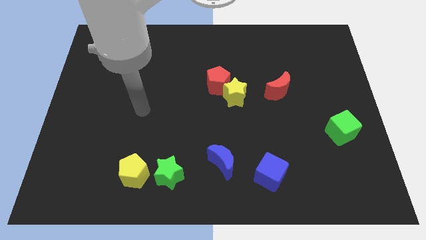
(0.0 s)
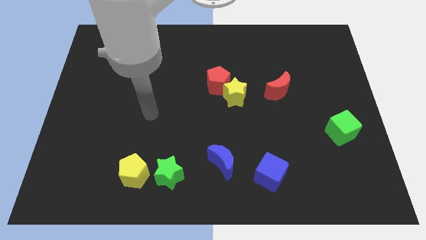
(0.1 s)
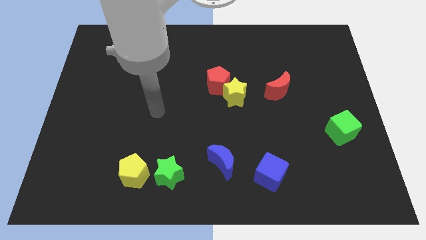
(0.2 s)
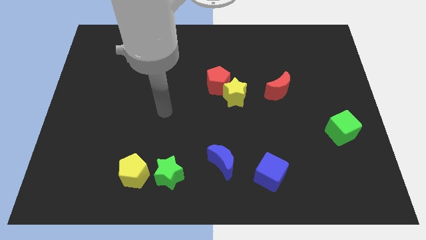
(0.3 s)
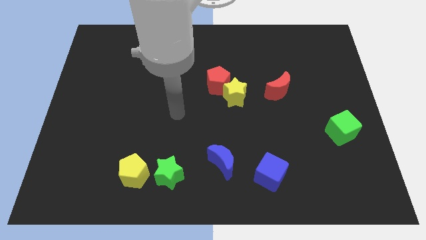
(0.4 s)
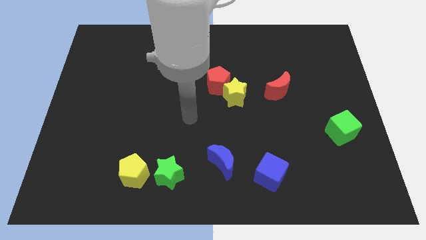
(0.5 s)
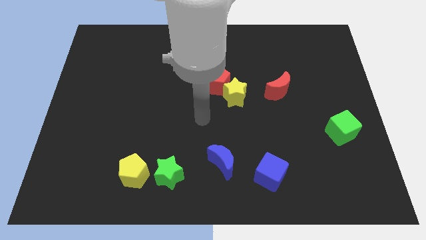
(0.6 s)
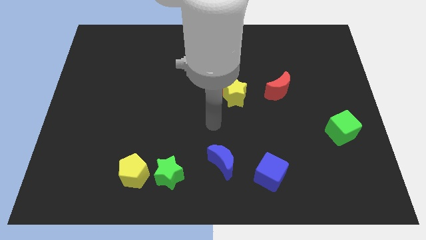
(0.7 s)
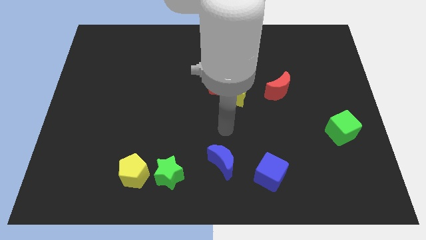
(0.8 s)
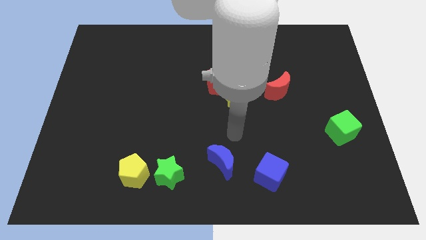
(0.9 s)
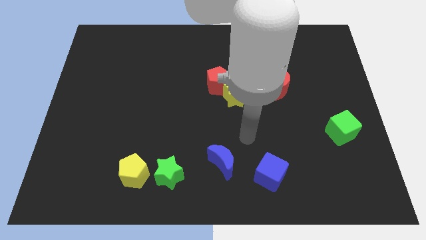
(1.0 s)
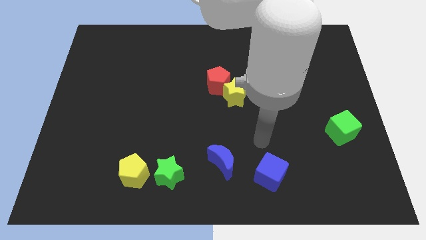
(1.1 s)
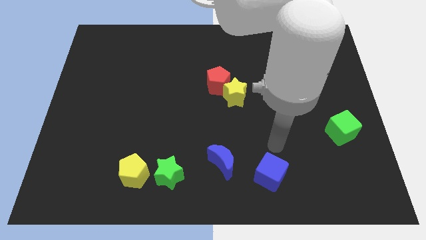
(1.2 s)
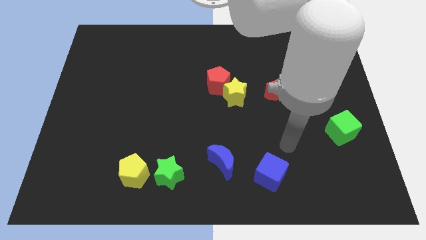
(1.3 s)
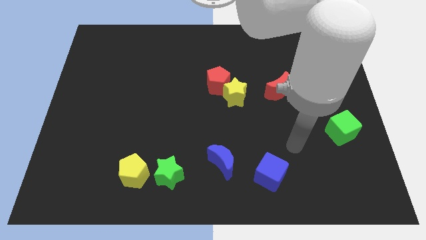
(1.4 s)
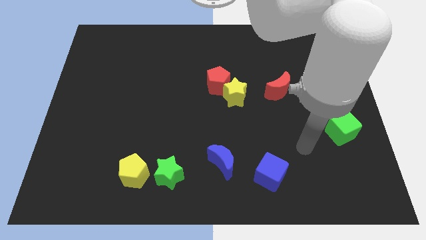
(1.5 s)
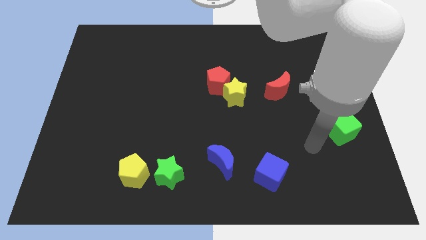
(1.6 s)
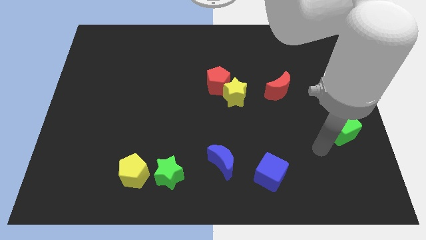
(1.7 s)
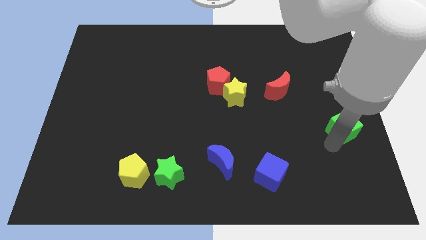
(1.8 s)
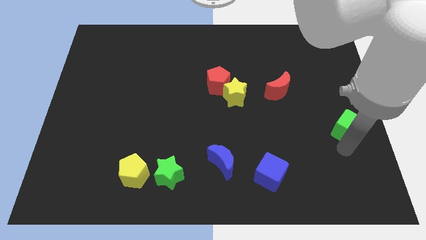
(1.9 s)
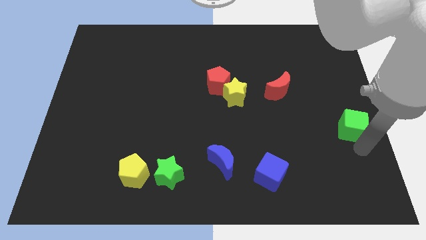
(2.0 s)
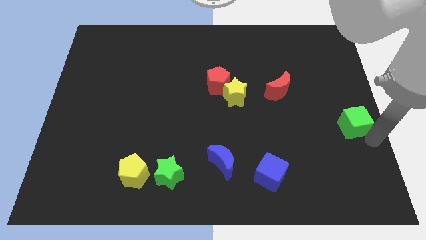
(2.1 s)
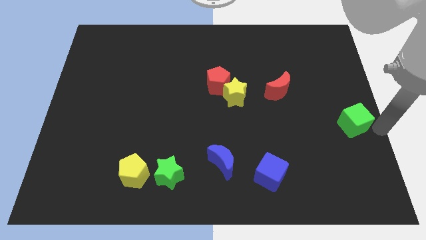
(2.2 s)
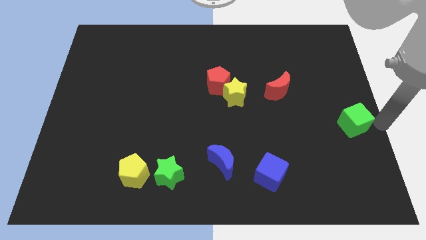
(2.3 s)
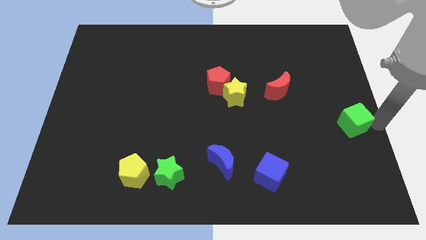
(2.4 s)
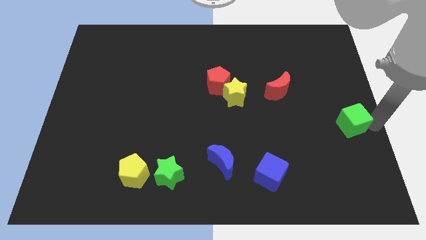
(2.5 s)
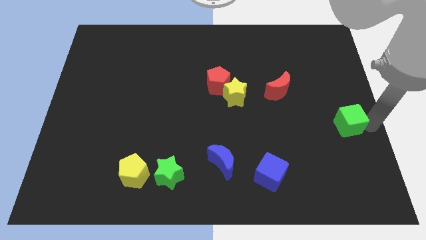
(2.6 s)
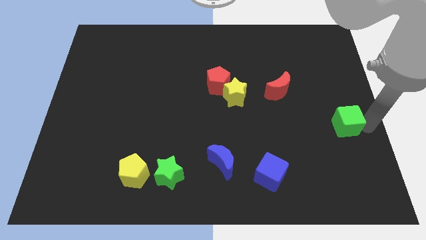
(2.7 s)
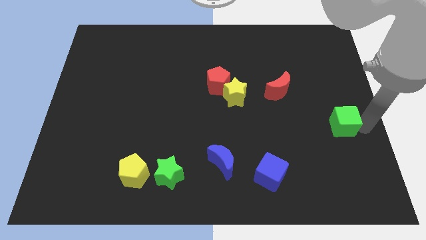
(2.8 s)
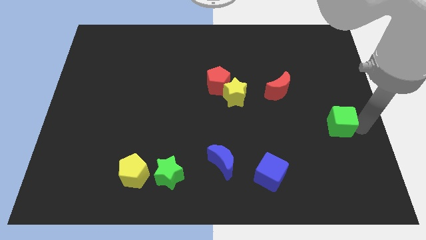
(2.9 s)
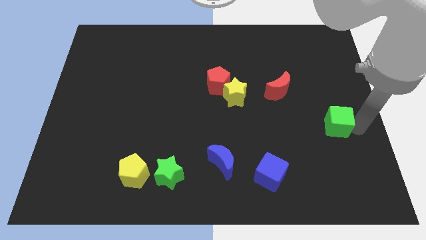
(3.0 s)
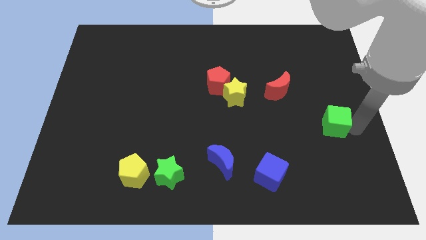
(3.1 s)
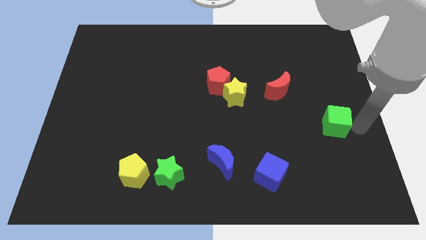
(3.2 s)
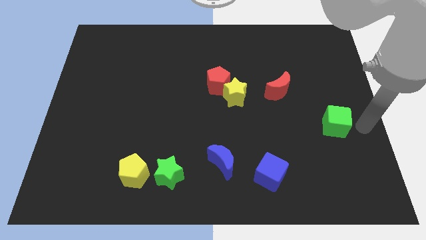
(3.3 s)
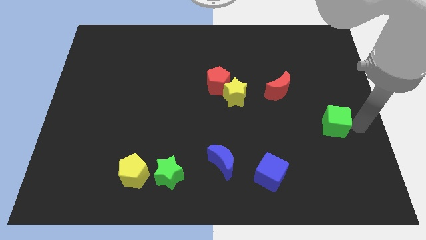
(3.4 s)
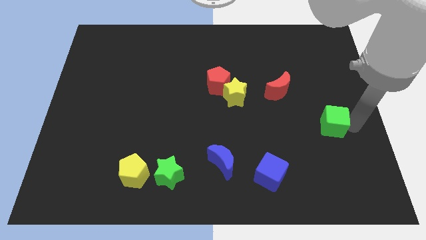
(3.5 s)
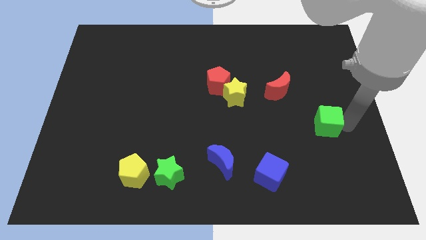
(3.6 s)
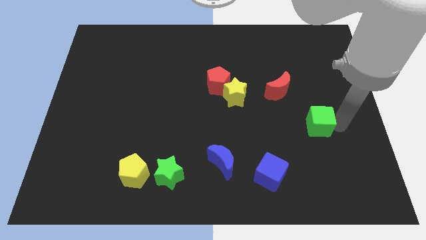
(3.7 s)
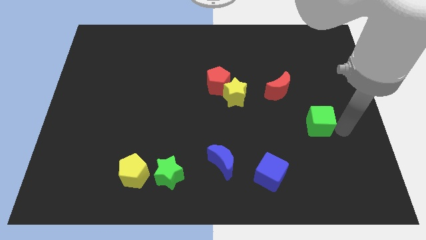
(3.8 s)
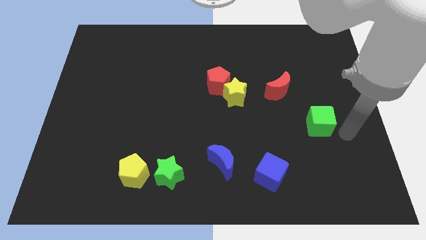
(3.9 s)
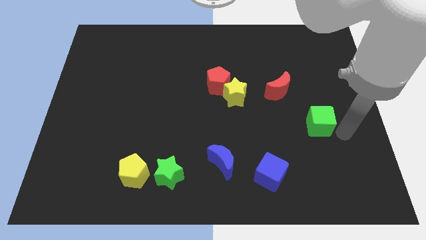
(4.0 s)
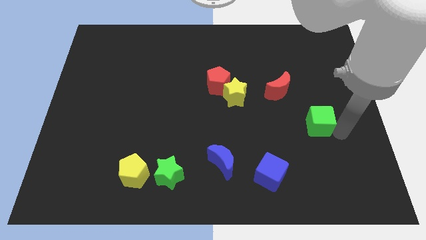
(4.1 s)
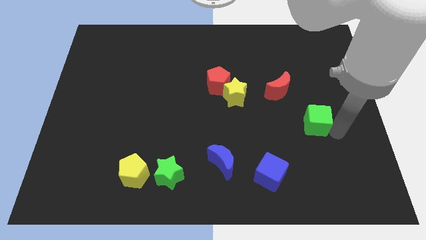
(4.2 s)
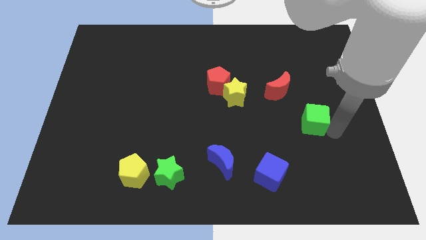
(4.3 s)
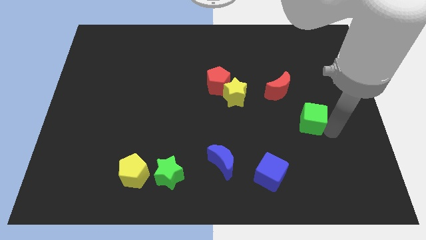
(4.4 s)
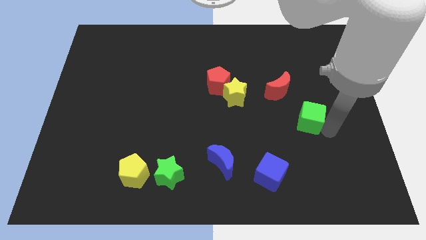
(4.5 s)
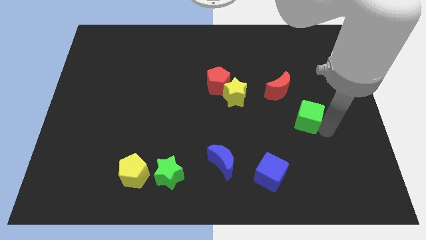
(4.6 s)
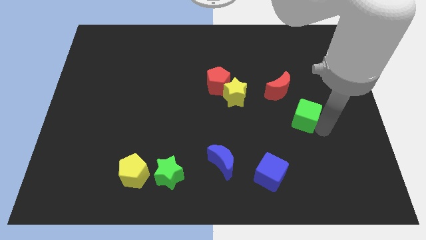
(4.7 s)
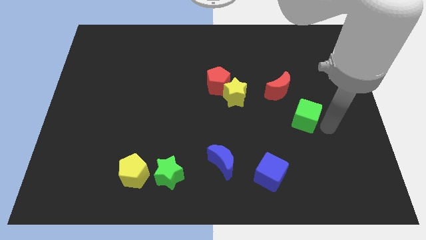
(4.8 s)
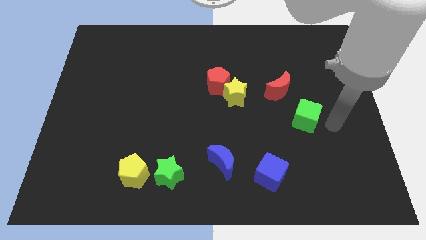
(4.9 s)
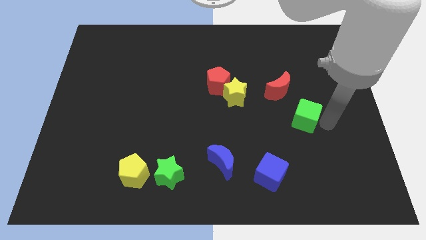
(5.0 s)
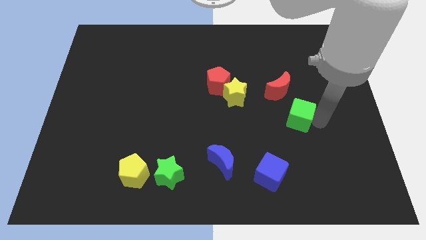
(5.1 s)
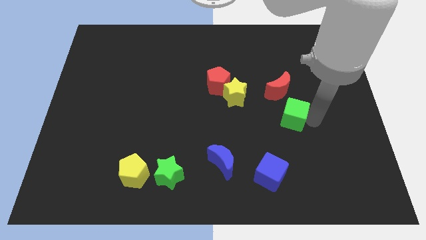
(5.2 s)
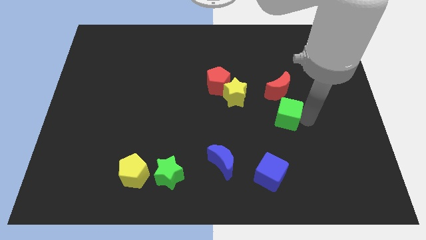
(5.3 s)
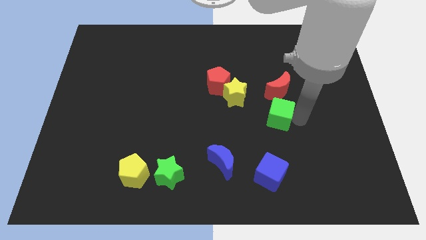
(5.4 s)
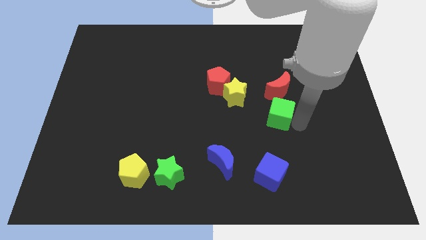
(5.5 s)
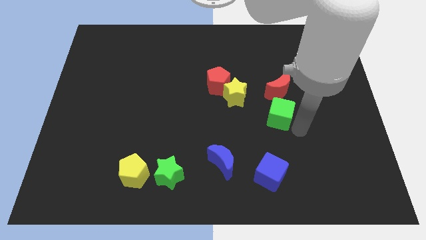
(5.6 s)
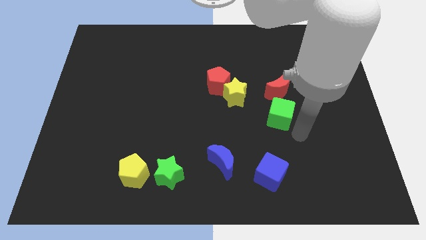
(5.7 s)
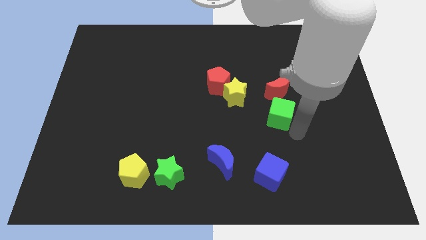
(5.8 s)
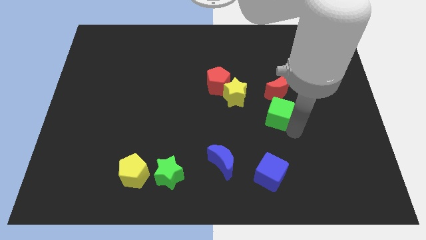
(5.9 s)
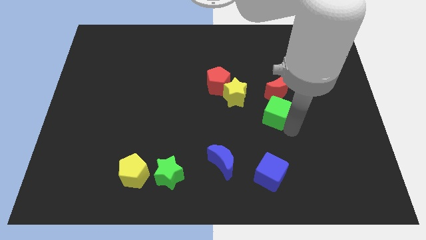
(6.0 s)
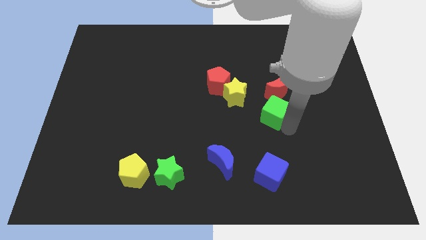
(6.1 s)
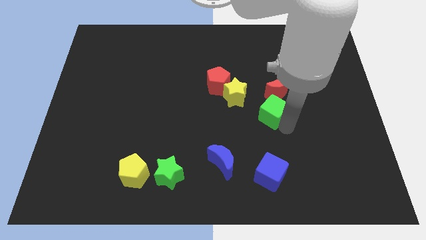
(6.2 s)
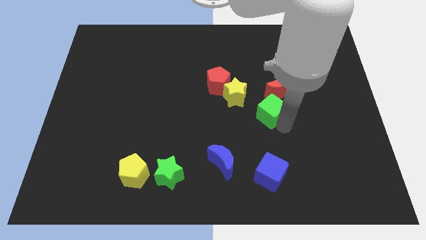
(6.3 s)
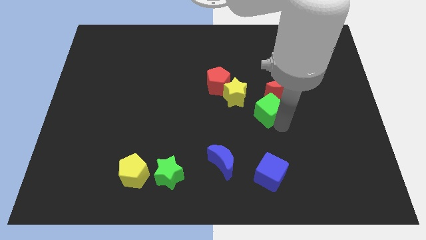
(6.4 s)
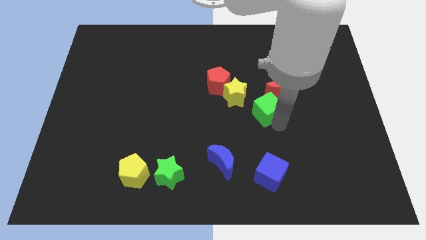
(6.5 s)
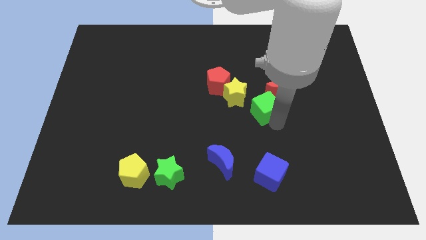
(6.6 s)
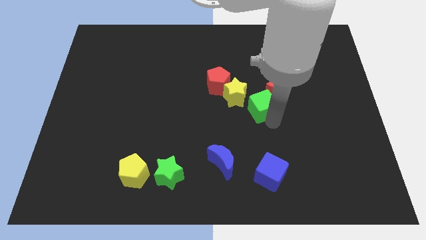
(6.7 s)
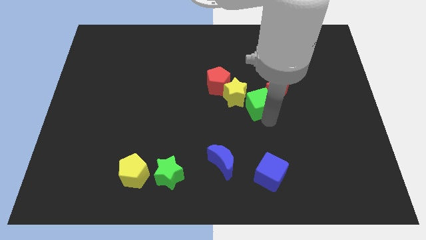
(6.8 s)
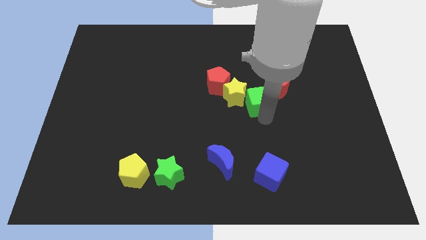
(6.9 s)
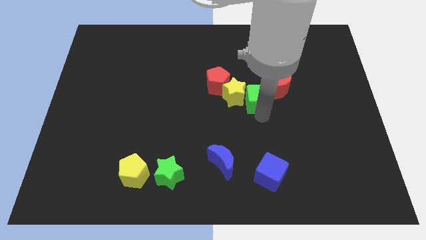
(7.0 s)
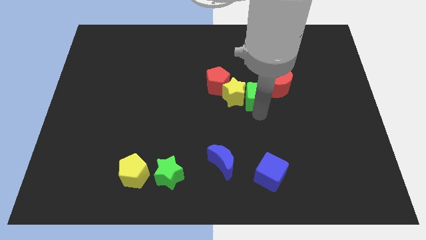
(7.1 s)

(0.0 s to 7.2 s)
push the green cube diagonally up and to the right of the yellow star
